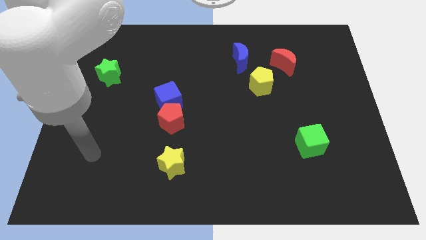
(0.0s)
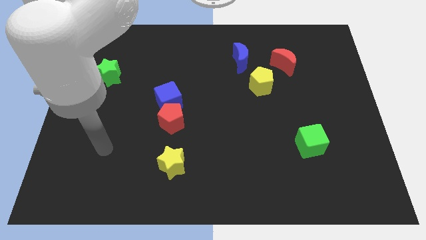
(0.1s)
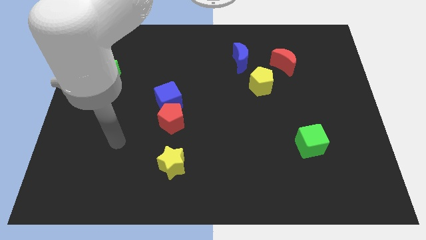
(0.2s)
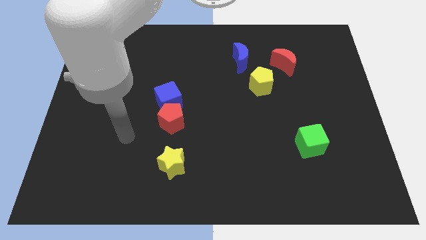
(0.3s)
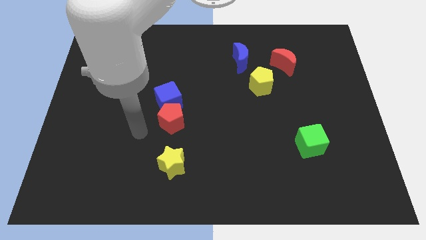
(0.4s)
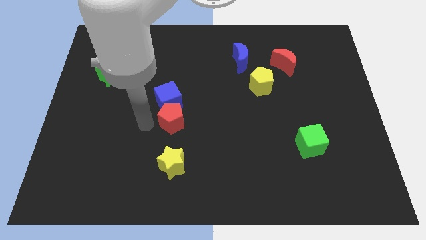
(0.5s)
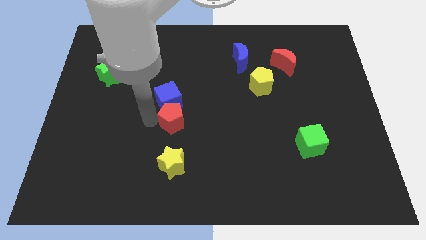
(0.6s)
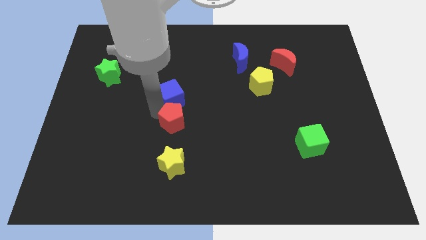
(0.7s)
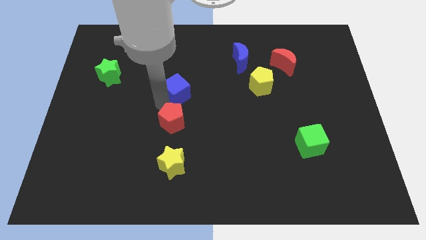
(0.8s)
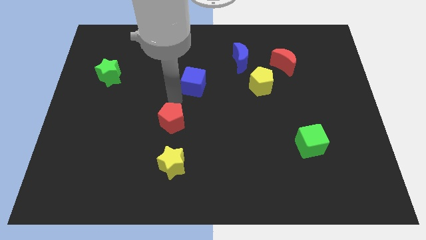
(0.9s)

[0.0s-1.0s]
move the red pentagon away from the blue cube

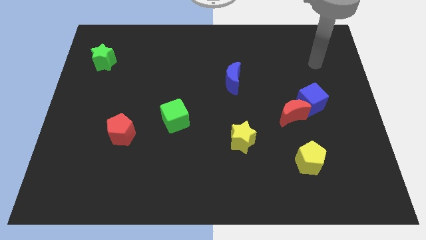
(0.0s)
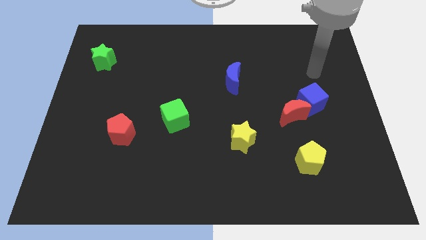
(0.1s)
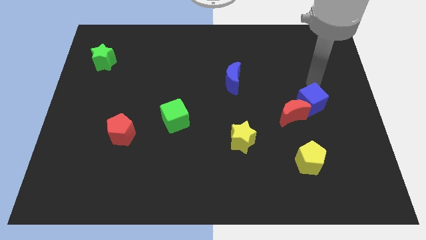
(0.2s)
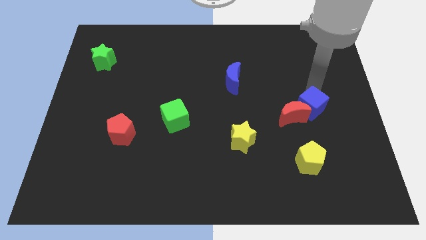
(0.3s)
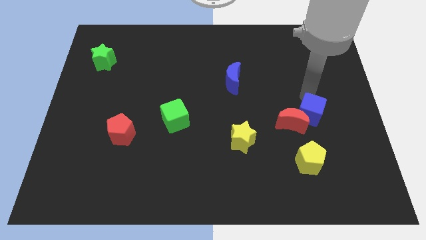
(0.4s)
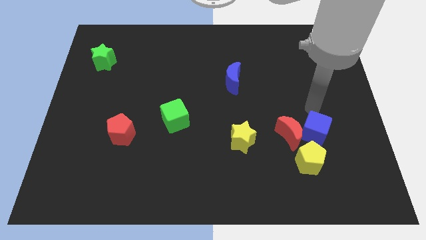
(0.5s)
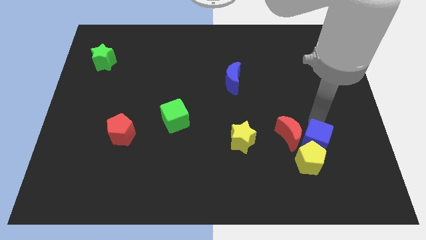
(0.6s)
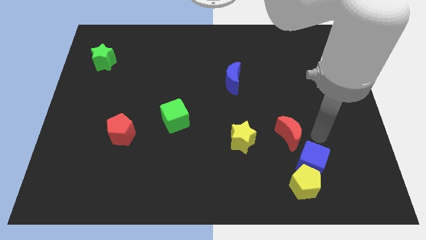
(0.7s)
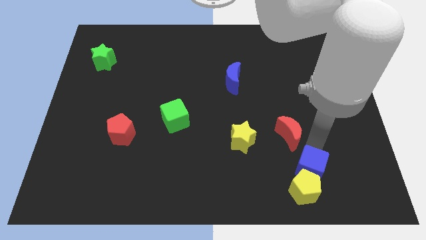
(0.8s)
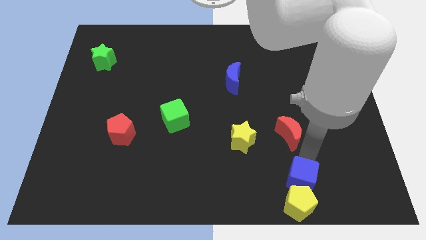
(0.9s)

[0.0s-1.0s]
move the red moon away from the blue cube

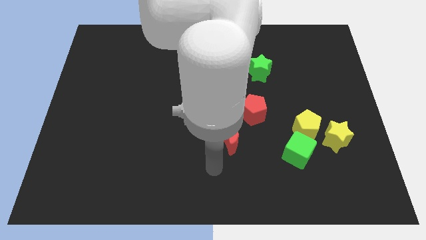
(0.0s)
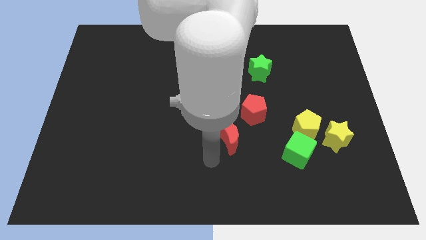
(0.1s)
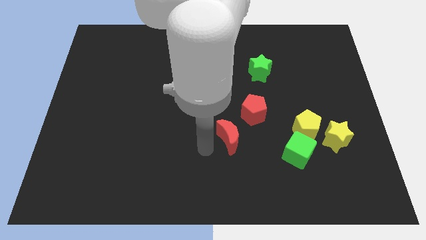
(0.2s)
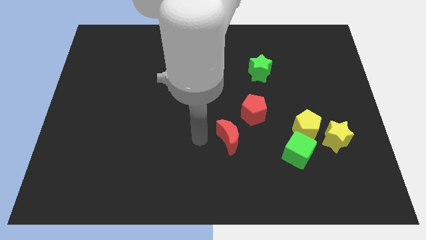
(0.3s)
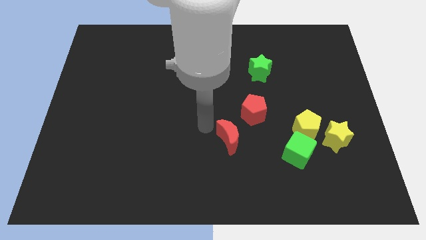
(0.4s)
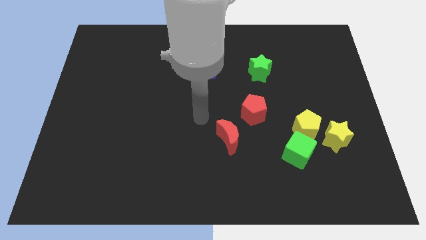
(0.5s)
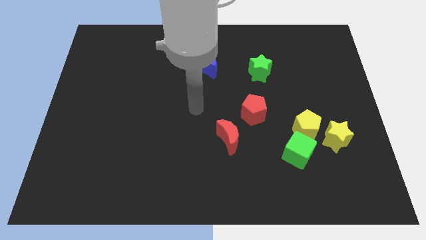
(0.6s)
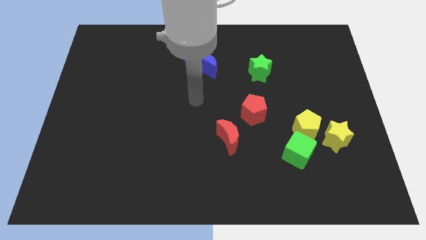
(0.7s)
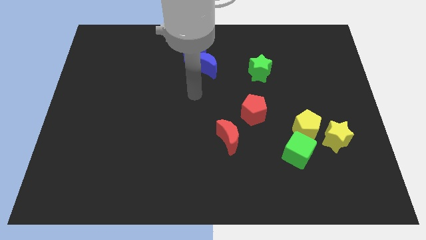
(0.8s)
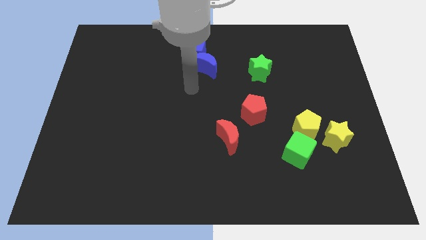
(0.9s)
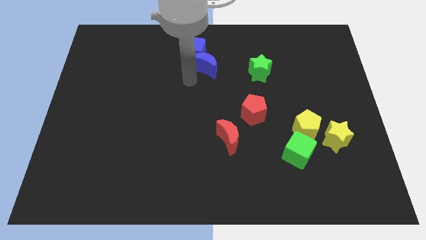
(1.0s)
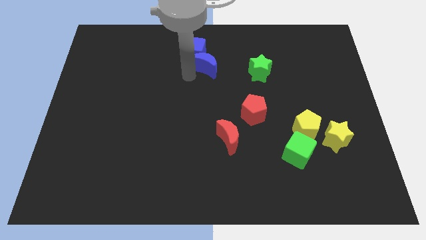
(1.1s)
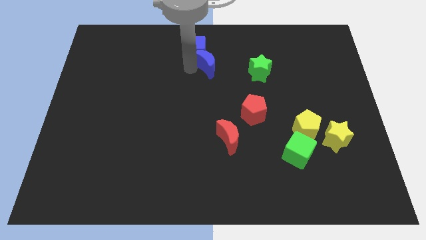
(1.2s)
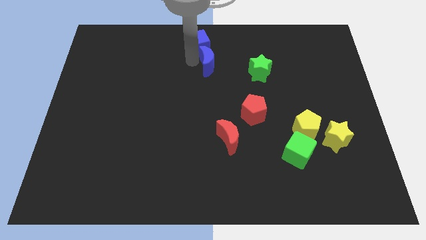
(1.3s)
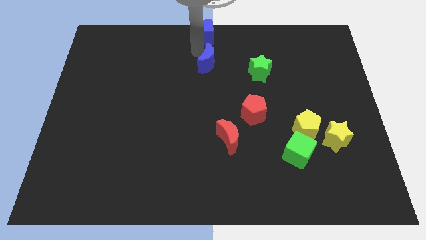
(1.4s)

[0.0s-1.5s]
move the blue moon away from the blue cube

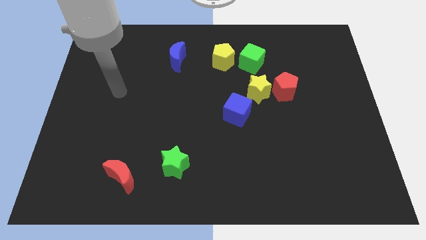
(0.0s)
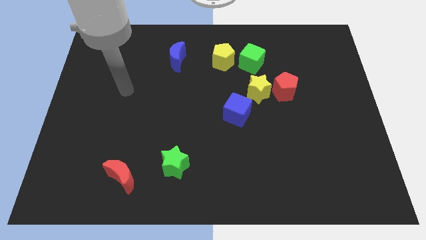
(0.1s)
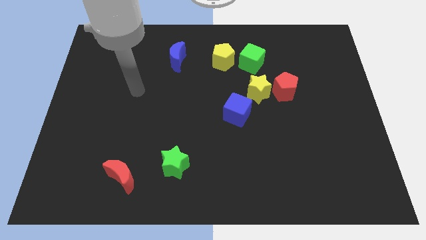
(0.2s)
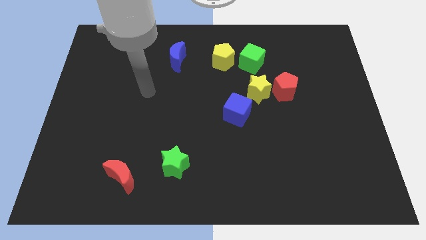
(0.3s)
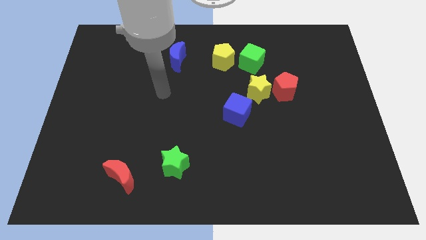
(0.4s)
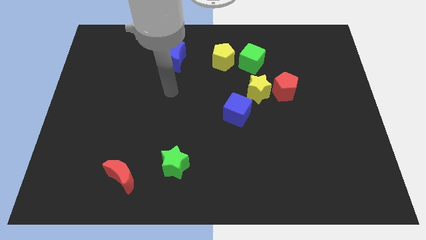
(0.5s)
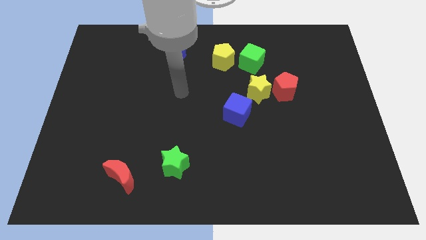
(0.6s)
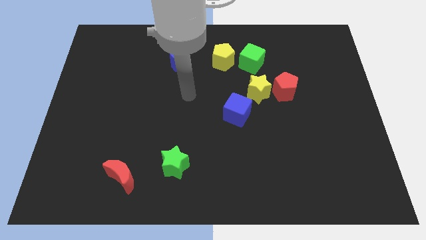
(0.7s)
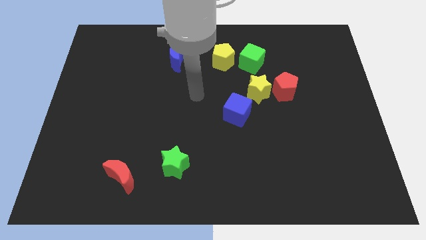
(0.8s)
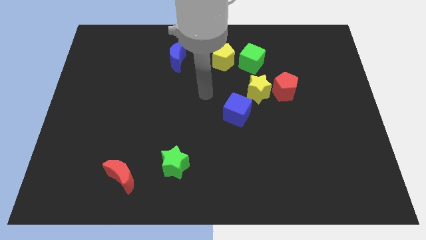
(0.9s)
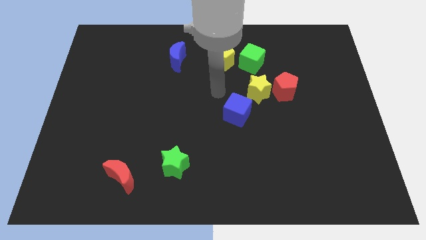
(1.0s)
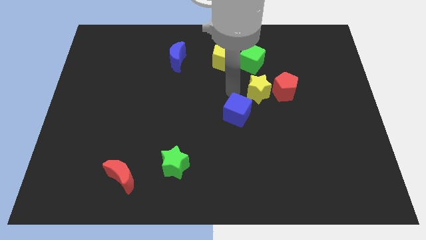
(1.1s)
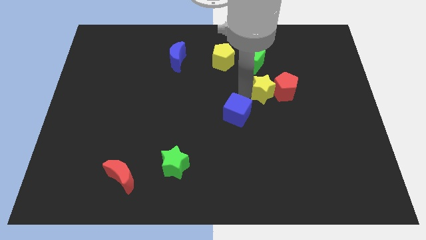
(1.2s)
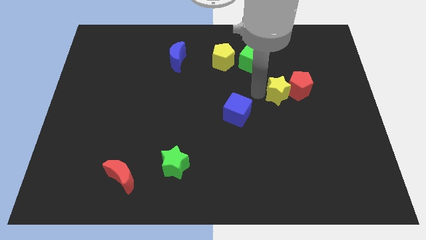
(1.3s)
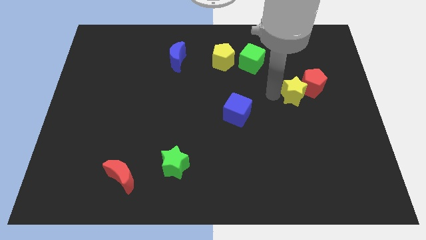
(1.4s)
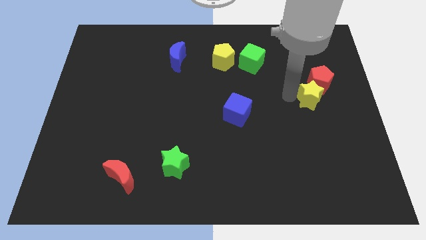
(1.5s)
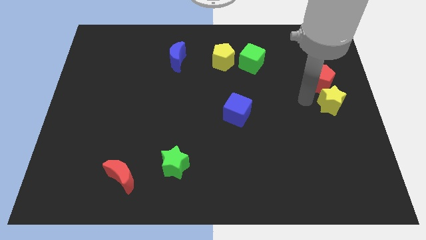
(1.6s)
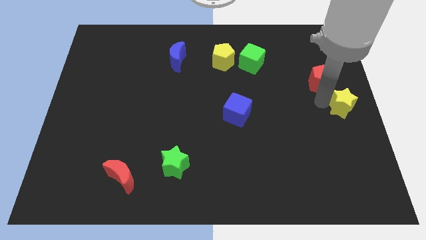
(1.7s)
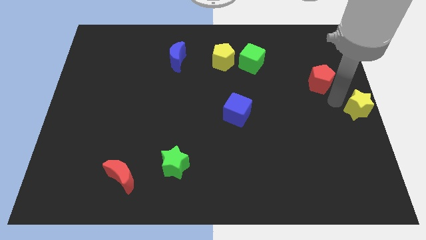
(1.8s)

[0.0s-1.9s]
move the red pentagon away from the yellow star

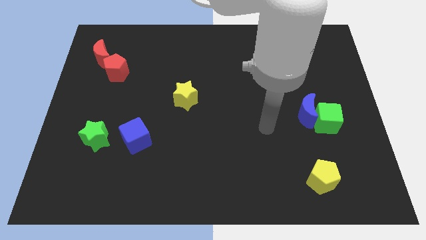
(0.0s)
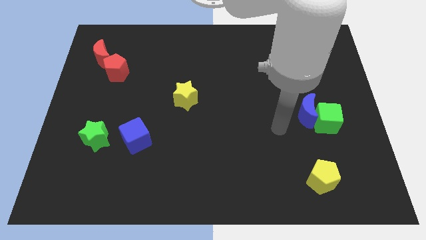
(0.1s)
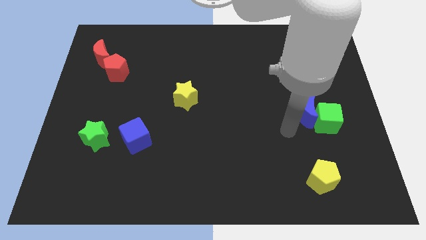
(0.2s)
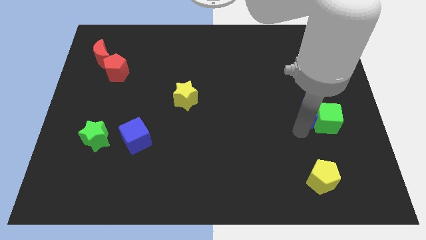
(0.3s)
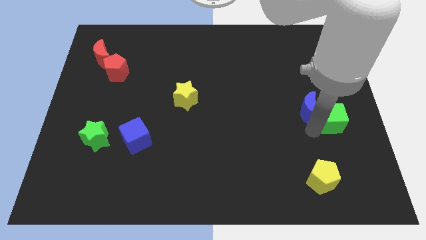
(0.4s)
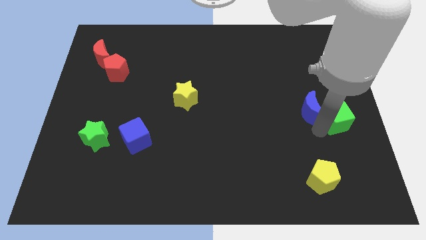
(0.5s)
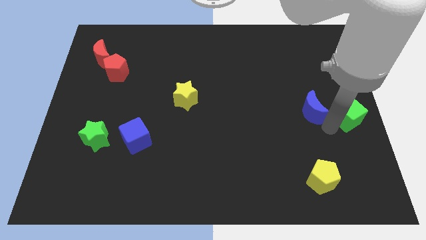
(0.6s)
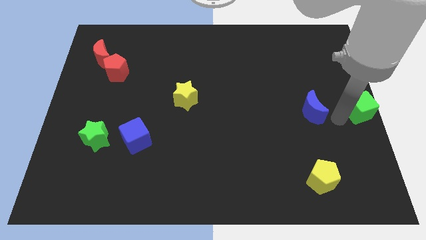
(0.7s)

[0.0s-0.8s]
separate the blue moon from the green cube

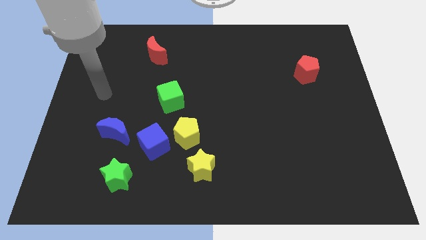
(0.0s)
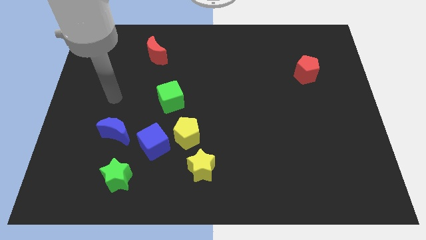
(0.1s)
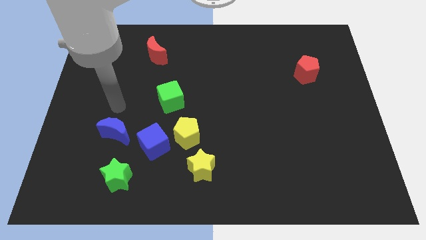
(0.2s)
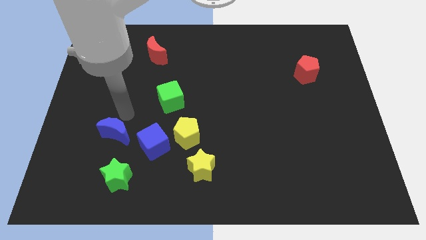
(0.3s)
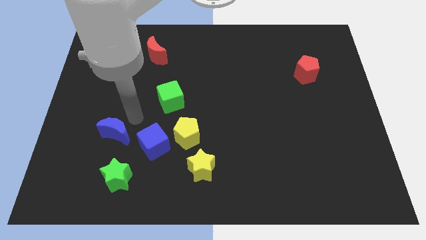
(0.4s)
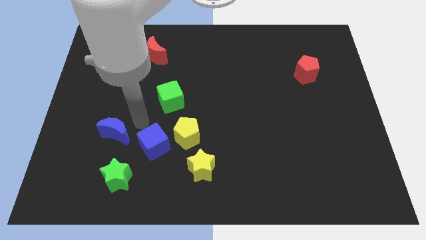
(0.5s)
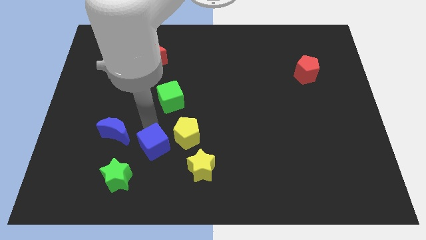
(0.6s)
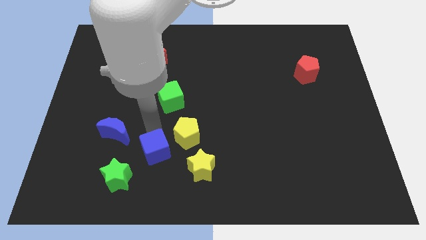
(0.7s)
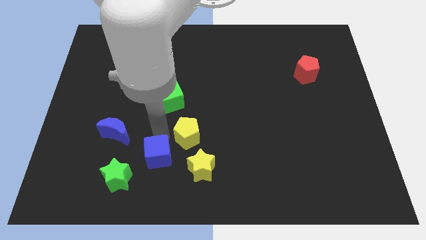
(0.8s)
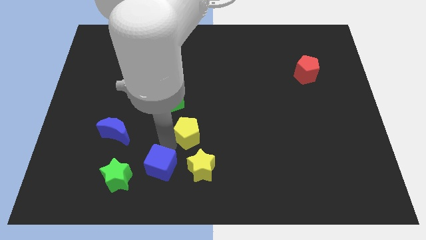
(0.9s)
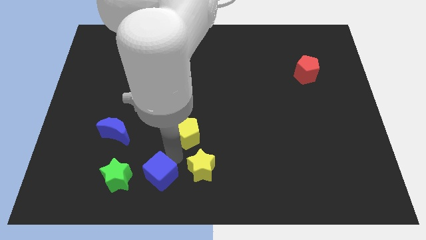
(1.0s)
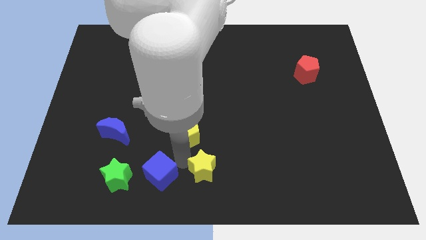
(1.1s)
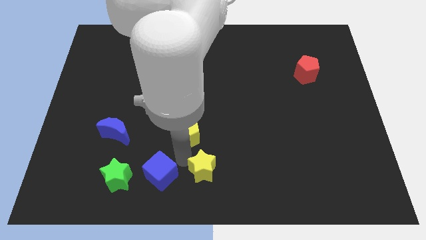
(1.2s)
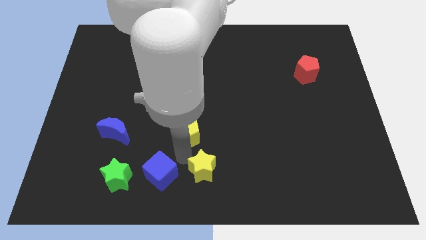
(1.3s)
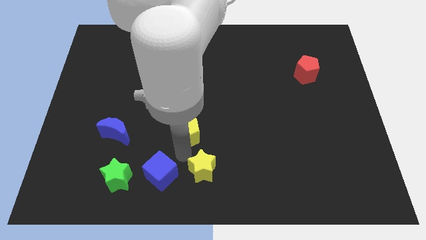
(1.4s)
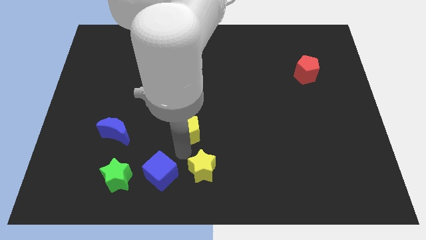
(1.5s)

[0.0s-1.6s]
pull the yellow pentagon apart from the blue cube and yellow star

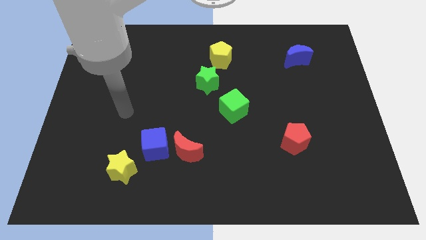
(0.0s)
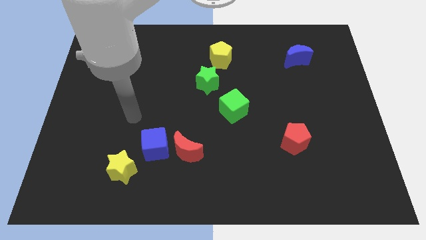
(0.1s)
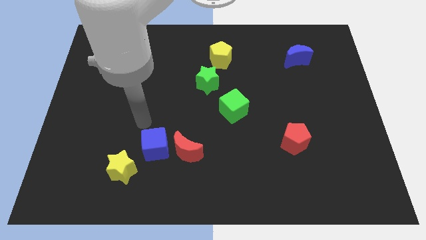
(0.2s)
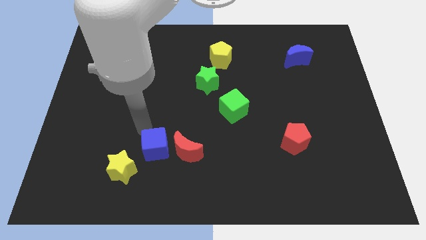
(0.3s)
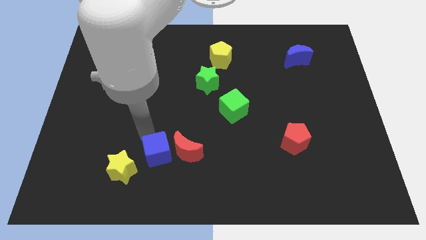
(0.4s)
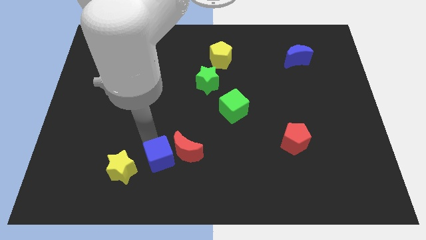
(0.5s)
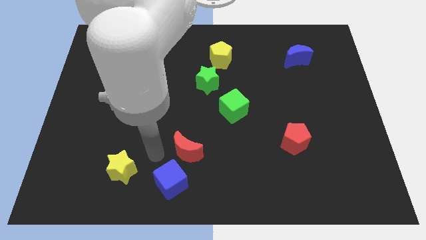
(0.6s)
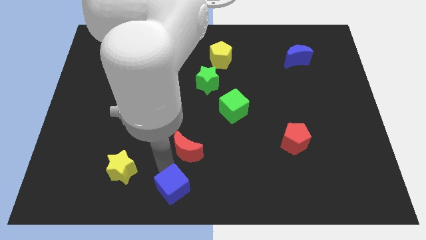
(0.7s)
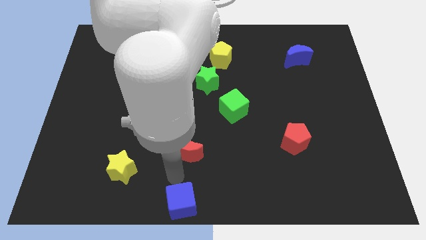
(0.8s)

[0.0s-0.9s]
pull the red moon apart from the blue cube

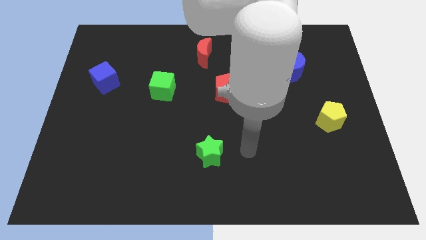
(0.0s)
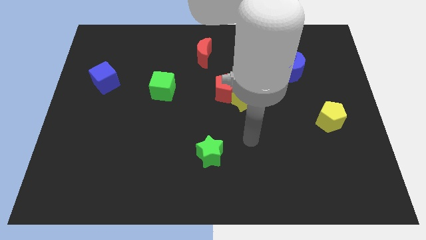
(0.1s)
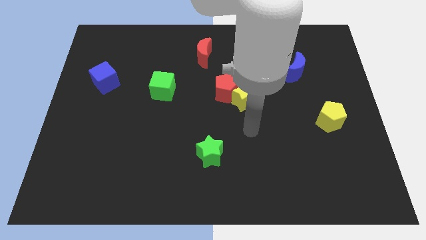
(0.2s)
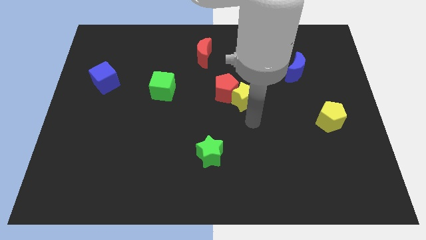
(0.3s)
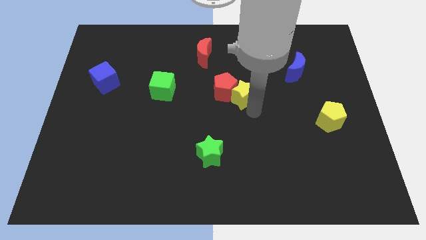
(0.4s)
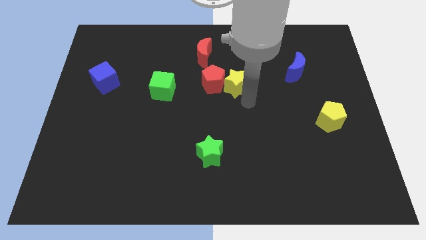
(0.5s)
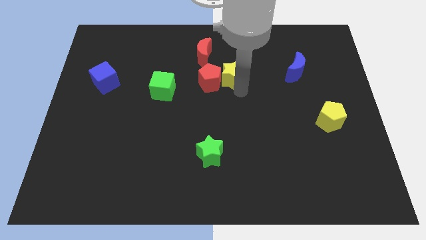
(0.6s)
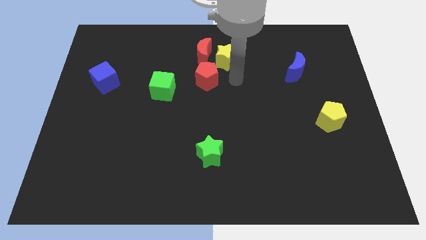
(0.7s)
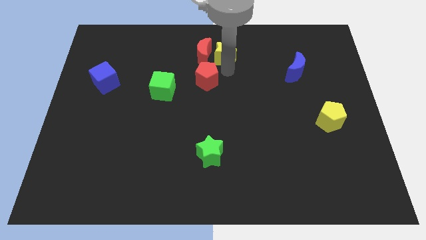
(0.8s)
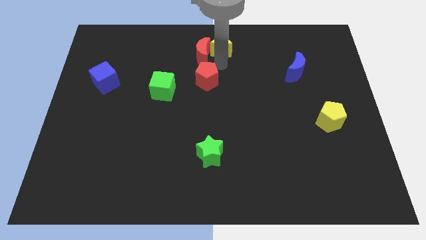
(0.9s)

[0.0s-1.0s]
separate the red pentagon from the yellow star
